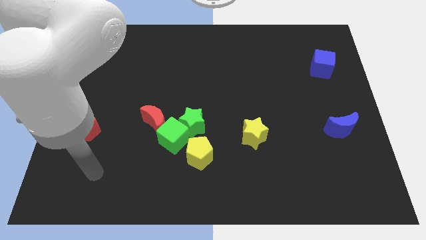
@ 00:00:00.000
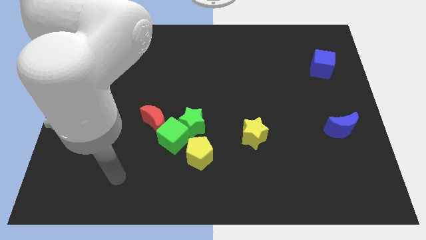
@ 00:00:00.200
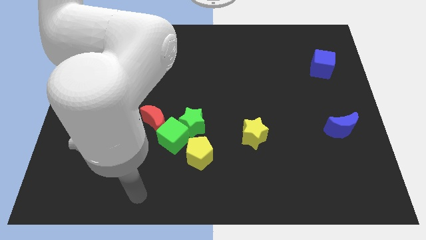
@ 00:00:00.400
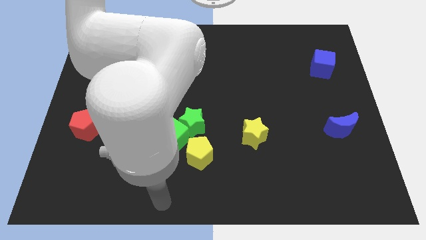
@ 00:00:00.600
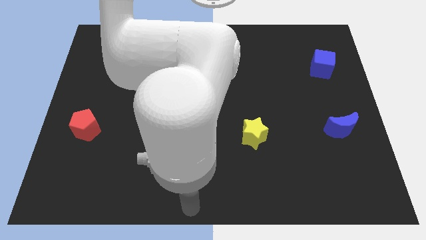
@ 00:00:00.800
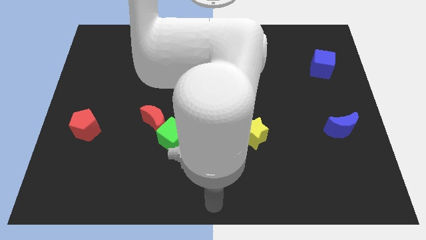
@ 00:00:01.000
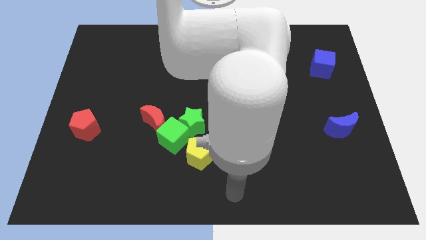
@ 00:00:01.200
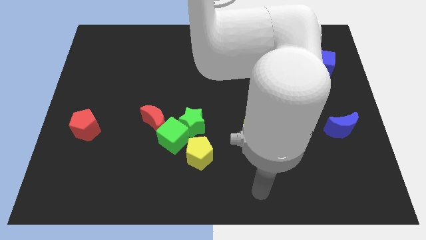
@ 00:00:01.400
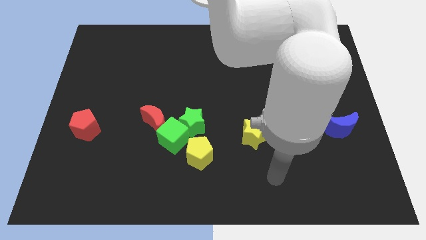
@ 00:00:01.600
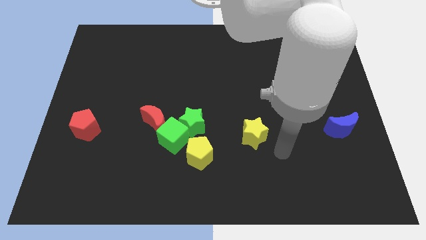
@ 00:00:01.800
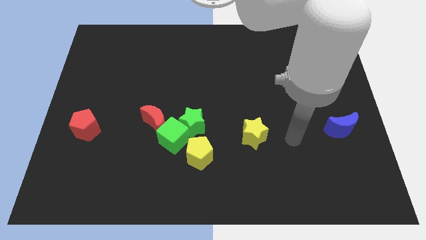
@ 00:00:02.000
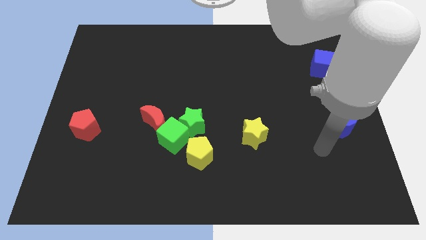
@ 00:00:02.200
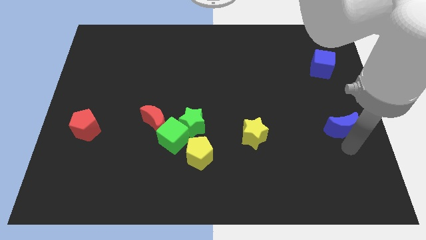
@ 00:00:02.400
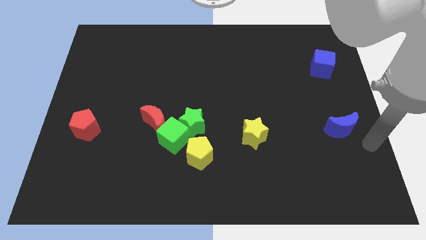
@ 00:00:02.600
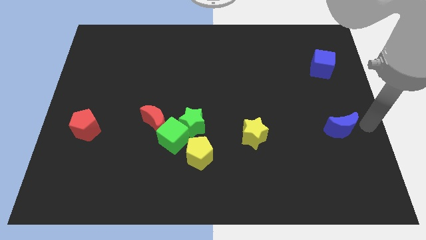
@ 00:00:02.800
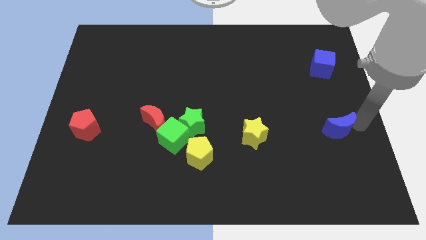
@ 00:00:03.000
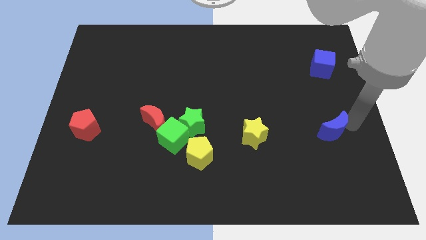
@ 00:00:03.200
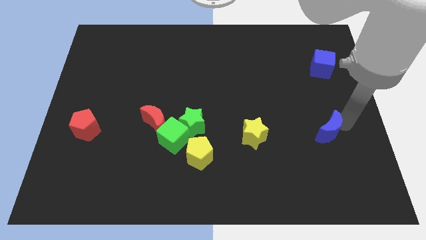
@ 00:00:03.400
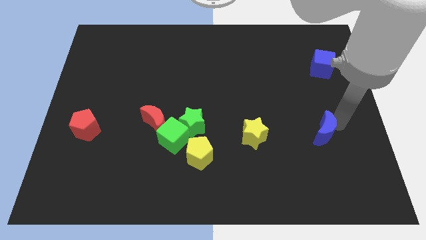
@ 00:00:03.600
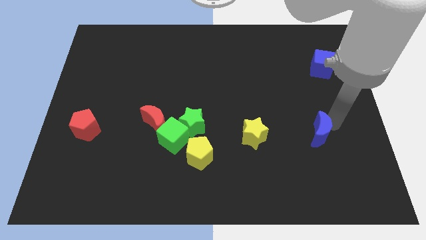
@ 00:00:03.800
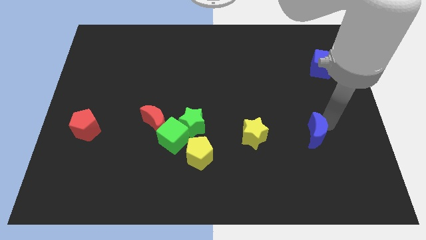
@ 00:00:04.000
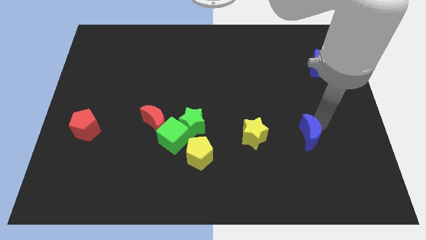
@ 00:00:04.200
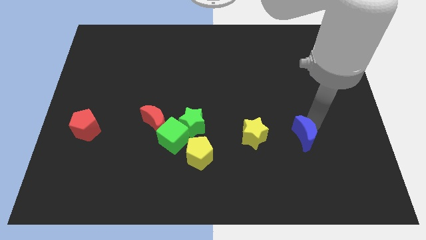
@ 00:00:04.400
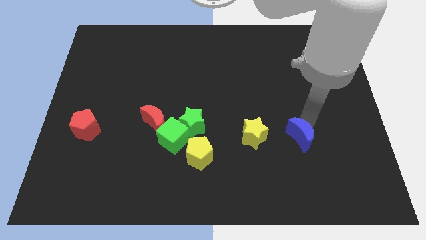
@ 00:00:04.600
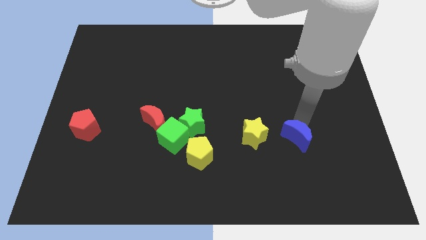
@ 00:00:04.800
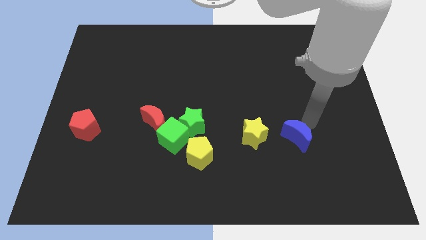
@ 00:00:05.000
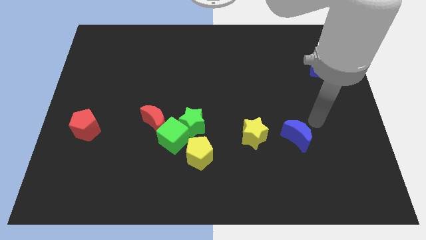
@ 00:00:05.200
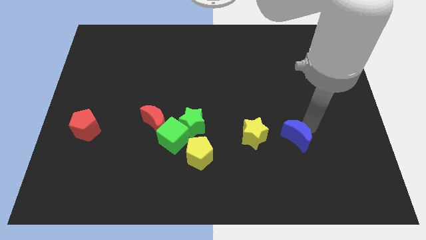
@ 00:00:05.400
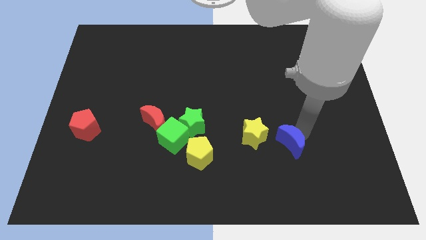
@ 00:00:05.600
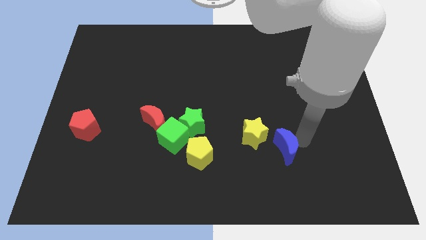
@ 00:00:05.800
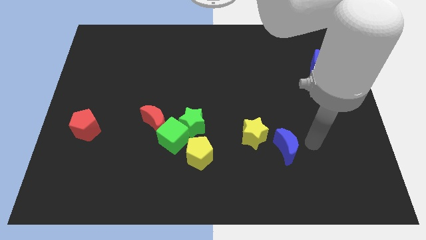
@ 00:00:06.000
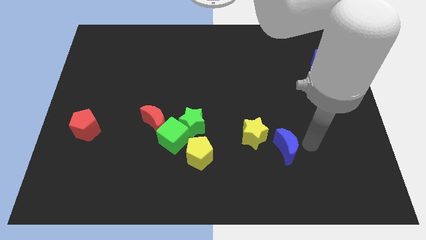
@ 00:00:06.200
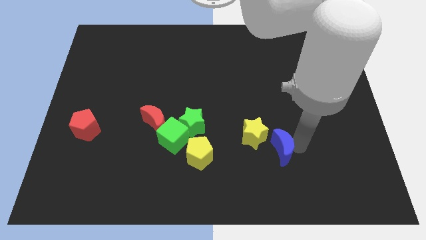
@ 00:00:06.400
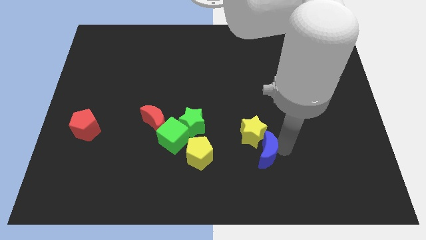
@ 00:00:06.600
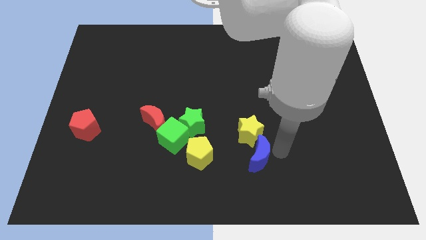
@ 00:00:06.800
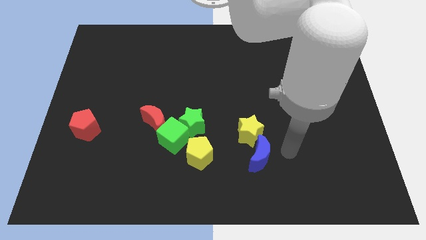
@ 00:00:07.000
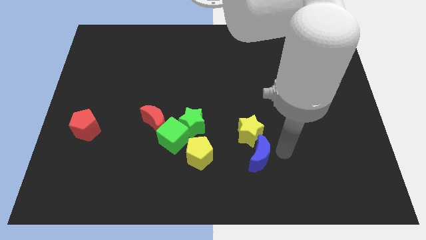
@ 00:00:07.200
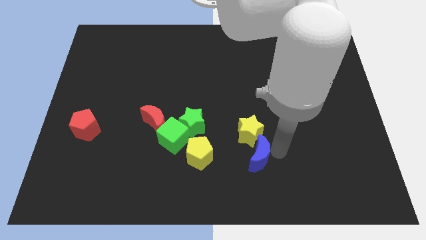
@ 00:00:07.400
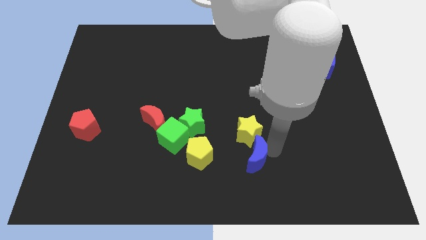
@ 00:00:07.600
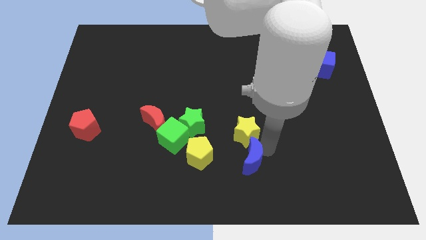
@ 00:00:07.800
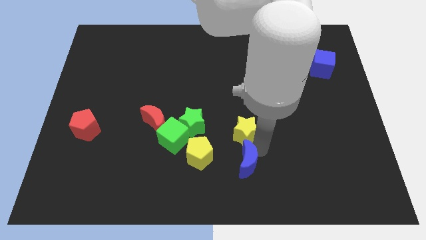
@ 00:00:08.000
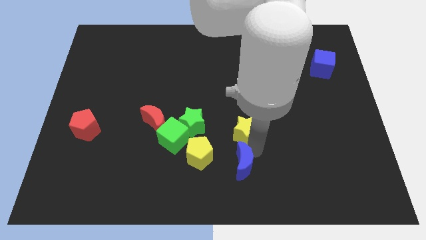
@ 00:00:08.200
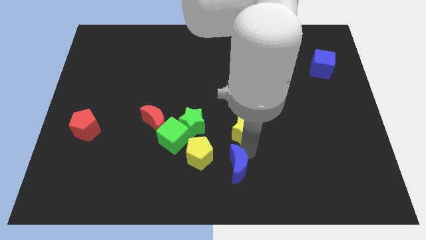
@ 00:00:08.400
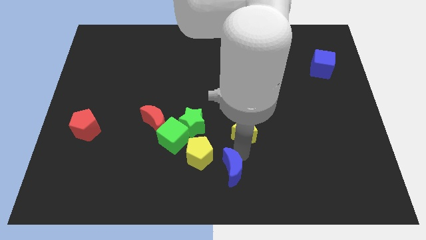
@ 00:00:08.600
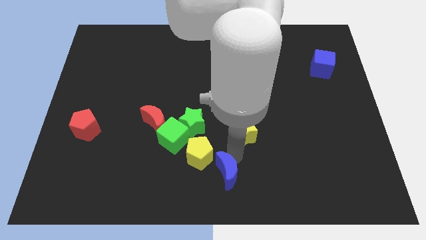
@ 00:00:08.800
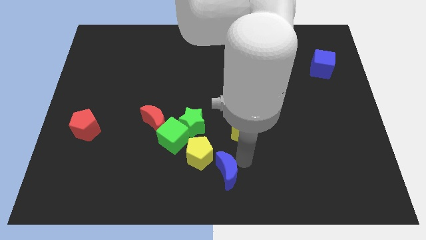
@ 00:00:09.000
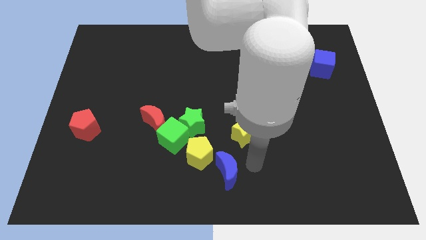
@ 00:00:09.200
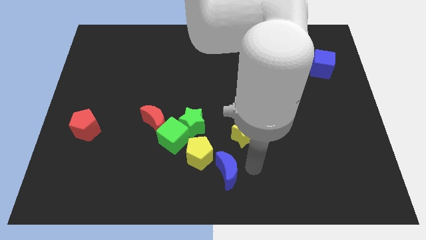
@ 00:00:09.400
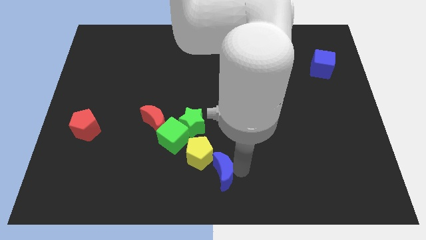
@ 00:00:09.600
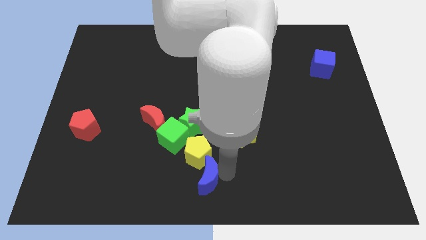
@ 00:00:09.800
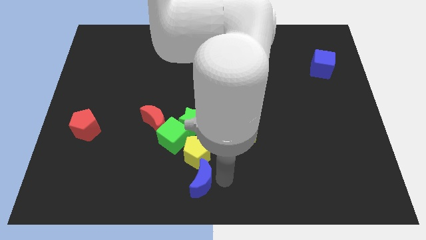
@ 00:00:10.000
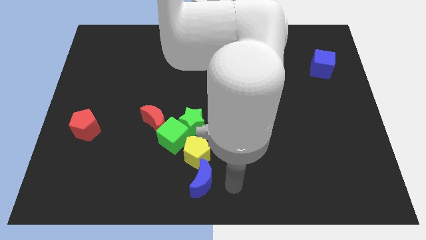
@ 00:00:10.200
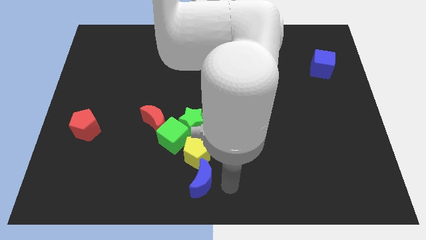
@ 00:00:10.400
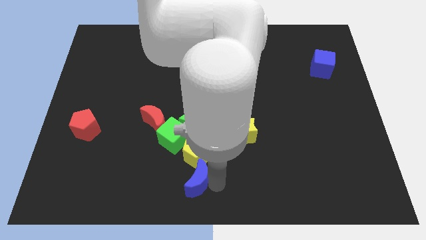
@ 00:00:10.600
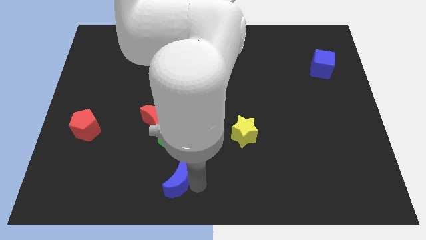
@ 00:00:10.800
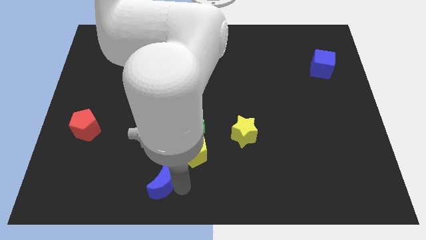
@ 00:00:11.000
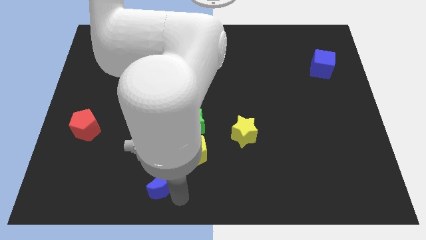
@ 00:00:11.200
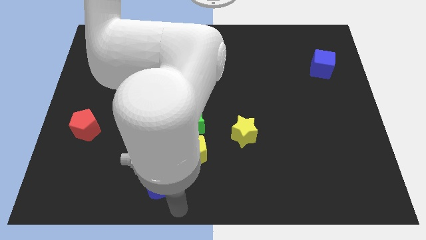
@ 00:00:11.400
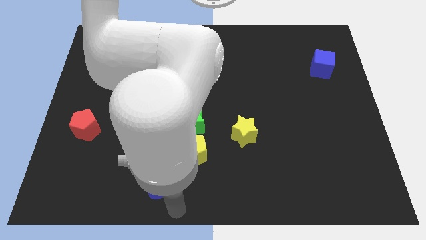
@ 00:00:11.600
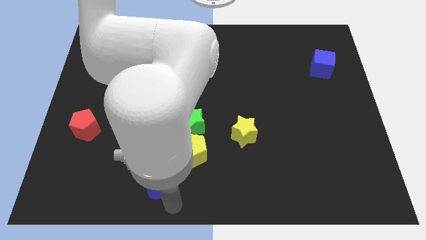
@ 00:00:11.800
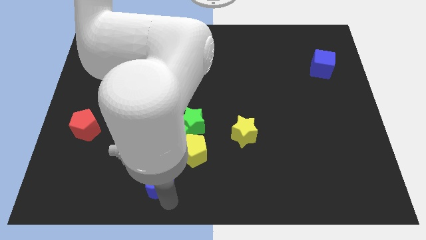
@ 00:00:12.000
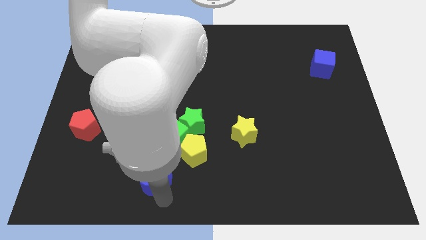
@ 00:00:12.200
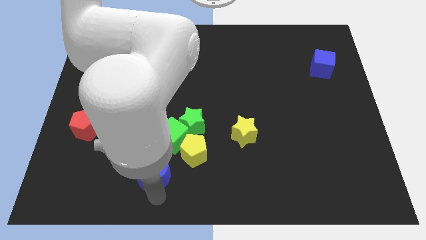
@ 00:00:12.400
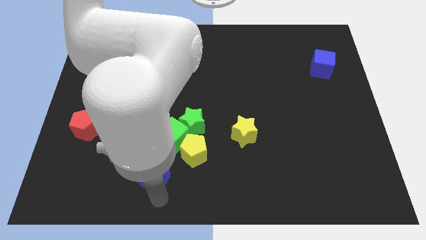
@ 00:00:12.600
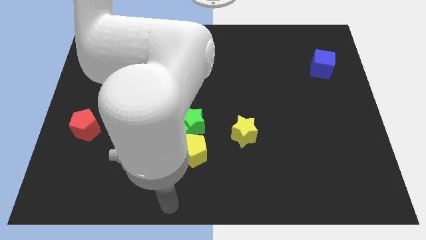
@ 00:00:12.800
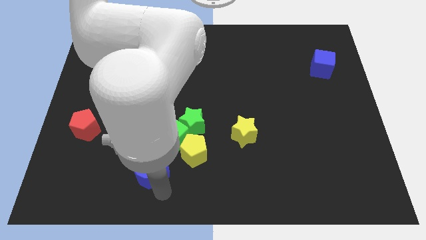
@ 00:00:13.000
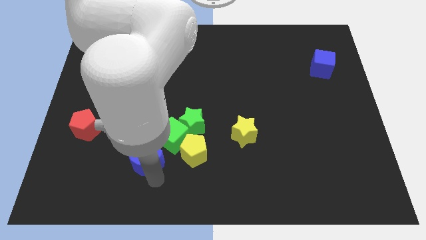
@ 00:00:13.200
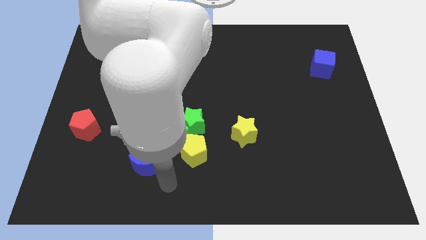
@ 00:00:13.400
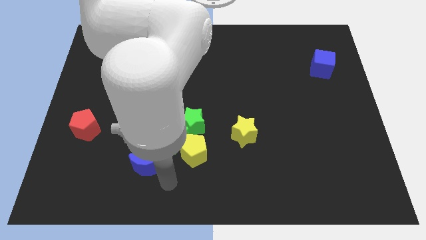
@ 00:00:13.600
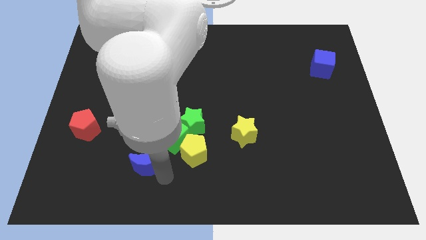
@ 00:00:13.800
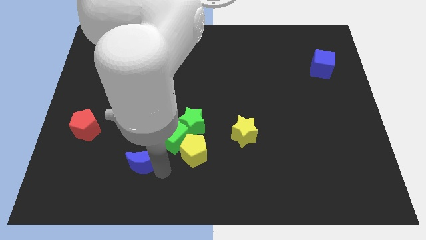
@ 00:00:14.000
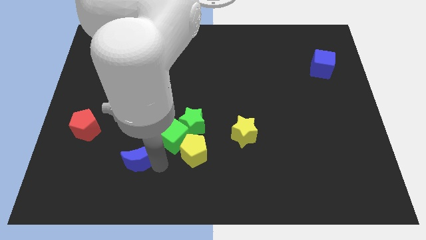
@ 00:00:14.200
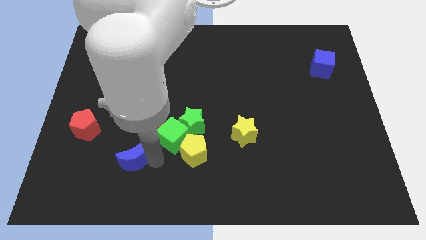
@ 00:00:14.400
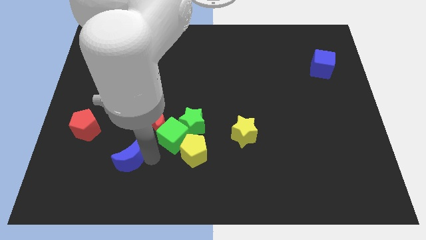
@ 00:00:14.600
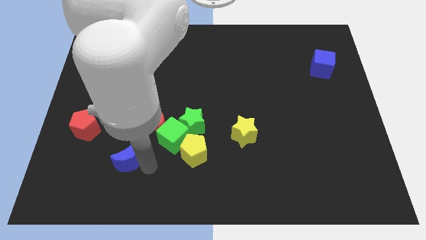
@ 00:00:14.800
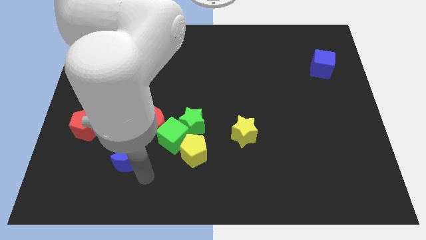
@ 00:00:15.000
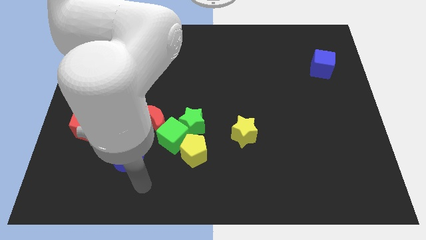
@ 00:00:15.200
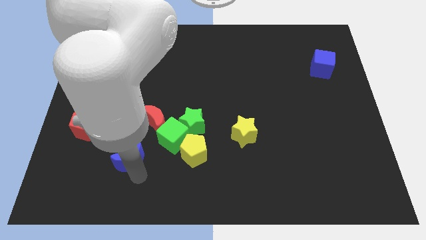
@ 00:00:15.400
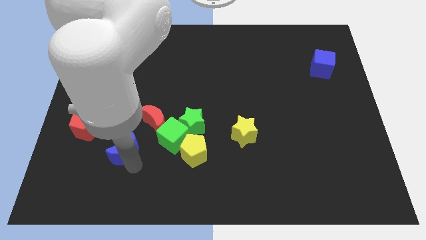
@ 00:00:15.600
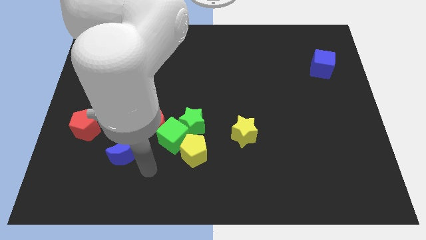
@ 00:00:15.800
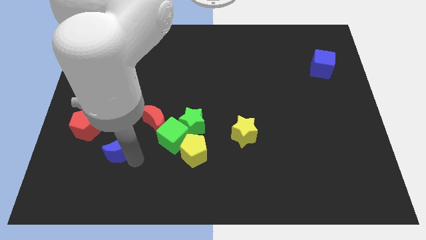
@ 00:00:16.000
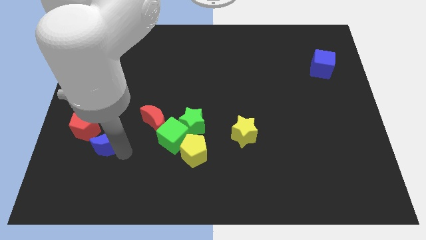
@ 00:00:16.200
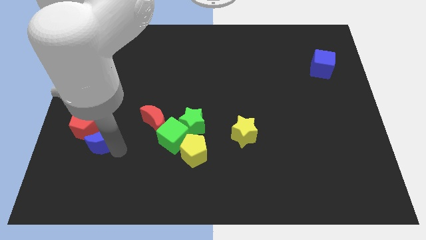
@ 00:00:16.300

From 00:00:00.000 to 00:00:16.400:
slide the blue moon to the red pentagon
